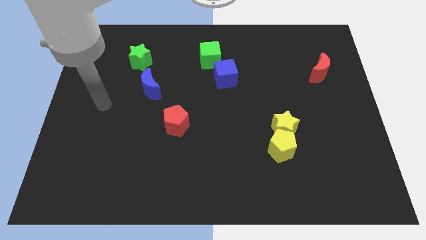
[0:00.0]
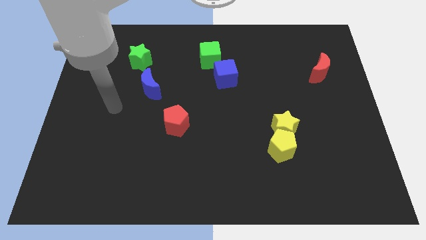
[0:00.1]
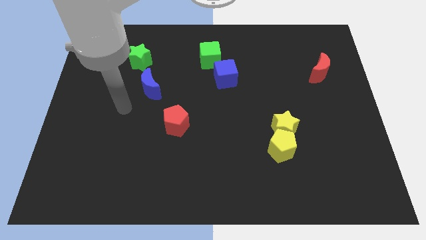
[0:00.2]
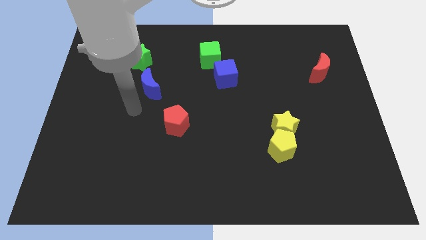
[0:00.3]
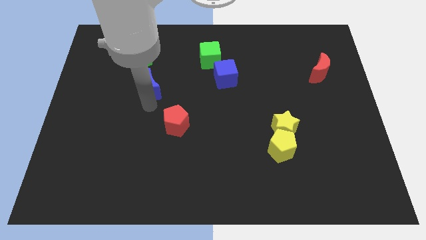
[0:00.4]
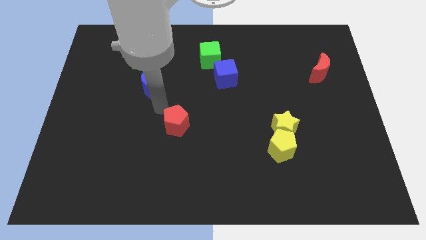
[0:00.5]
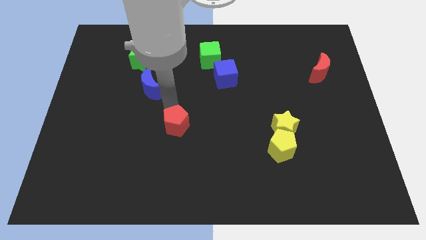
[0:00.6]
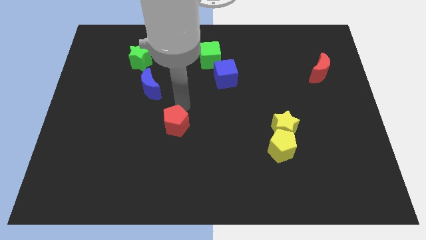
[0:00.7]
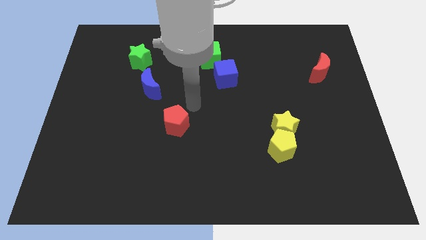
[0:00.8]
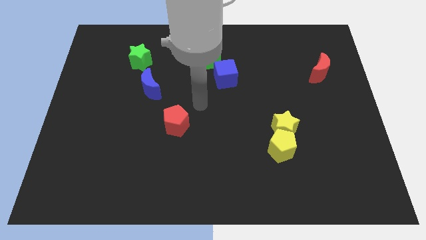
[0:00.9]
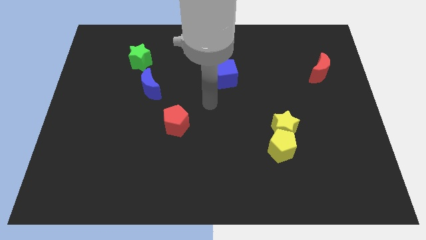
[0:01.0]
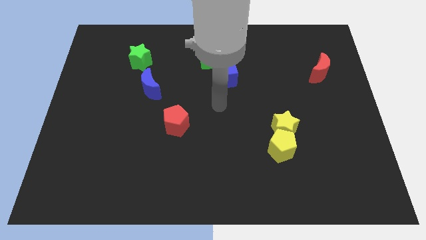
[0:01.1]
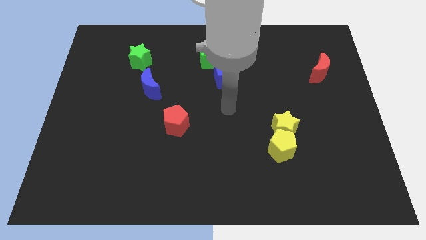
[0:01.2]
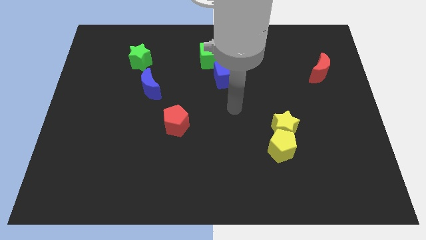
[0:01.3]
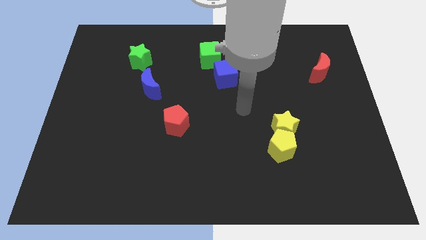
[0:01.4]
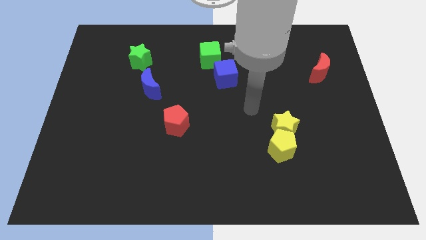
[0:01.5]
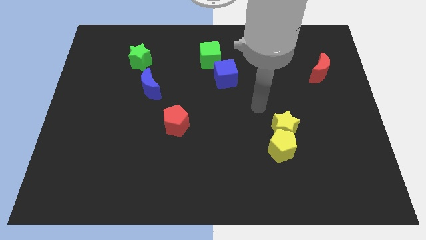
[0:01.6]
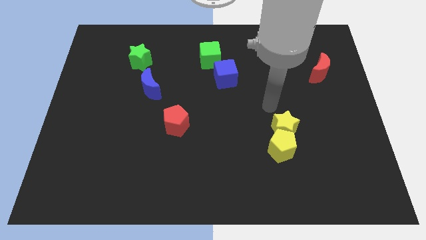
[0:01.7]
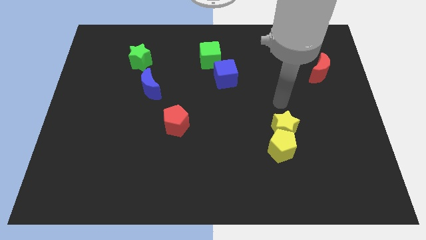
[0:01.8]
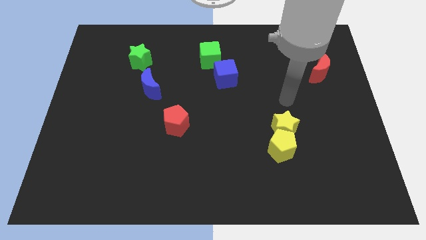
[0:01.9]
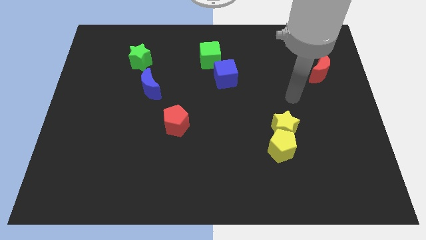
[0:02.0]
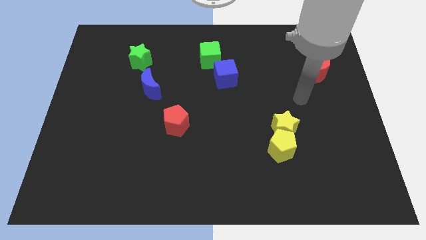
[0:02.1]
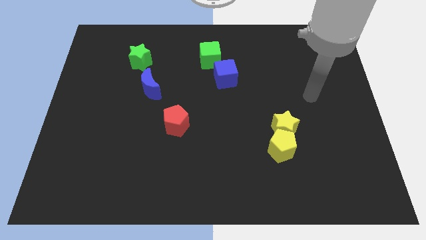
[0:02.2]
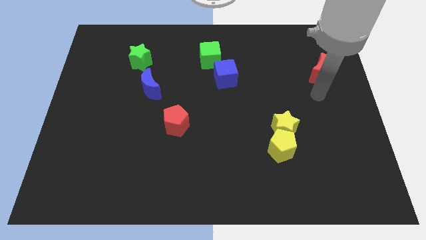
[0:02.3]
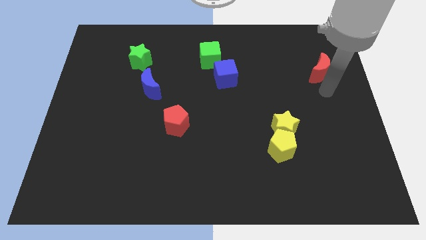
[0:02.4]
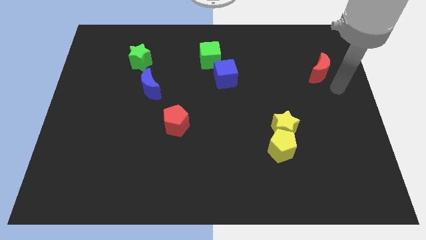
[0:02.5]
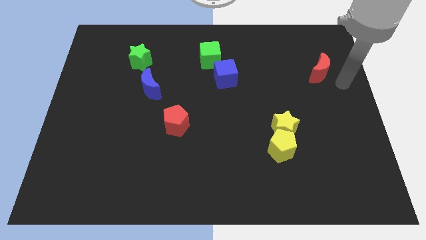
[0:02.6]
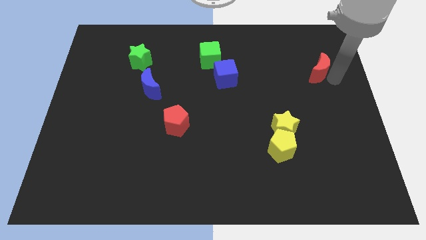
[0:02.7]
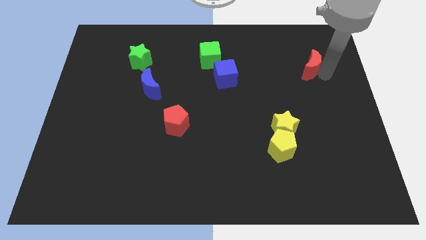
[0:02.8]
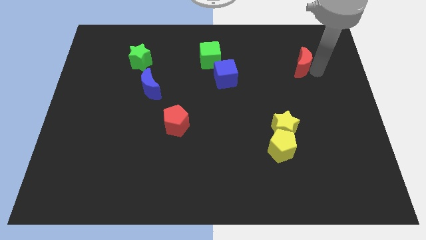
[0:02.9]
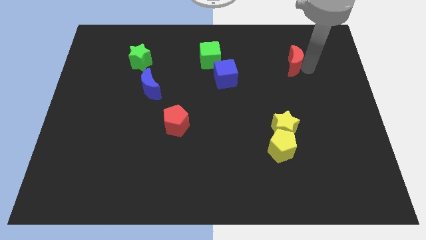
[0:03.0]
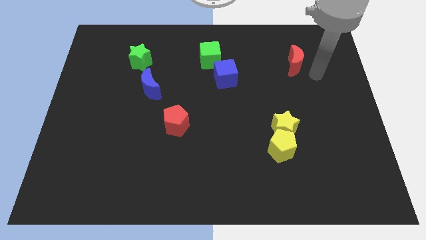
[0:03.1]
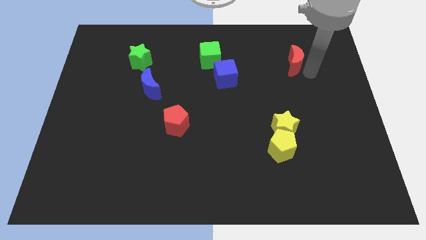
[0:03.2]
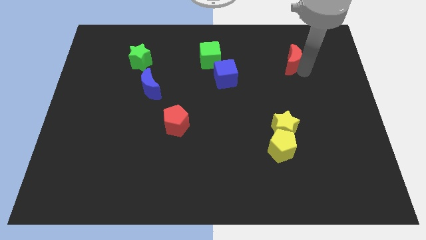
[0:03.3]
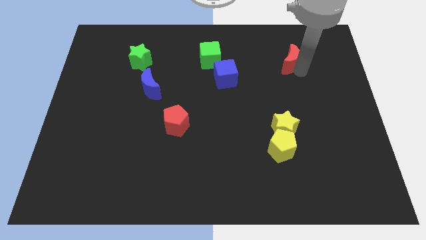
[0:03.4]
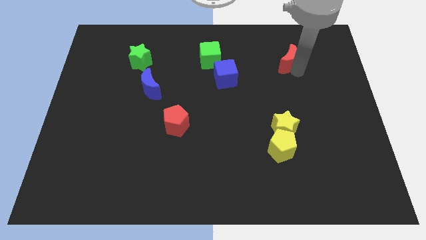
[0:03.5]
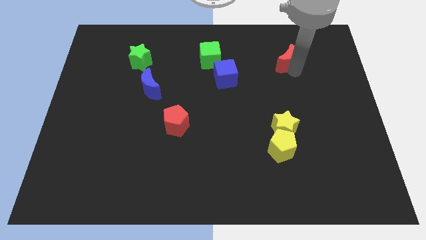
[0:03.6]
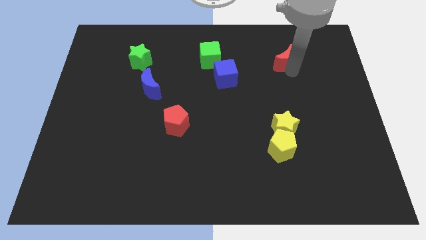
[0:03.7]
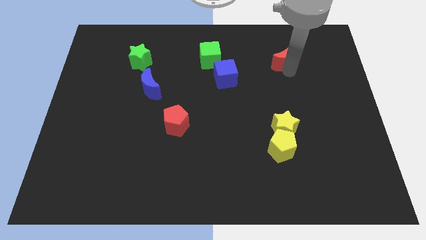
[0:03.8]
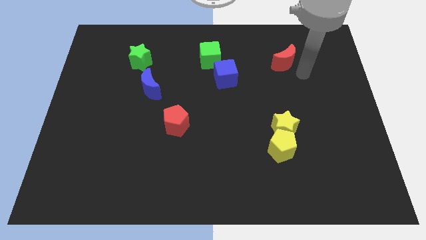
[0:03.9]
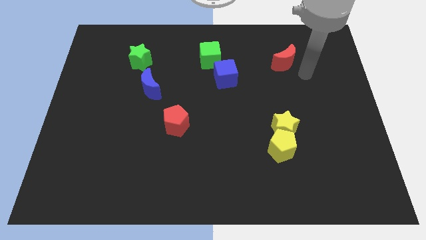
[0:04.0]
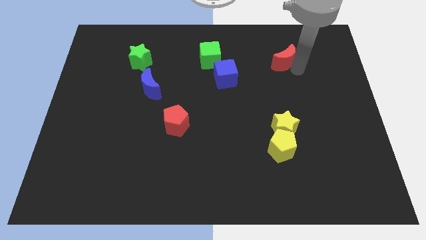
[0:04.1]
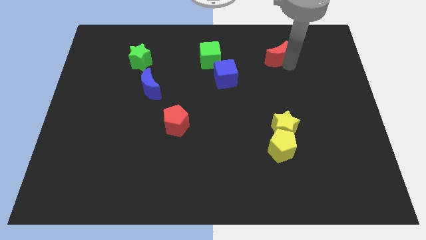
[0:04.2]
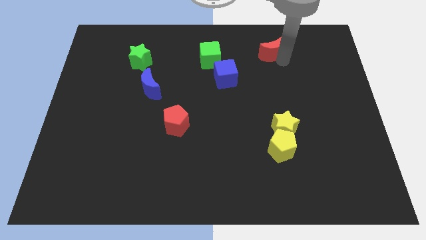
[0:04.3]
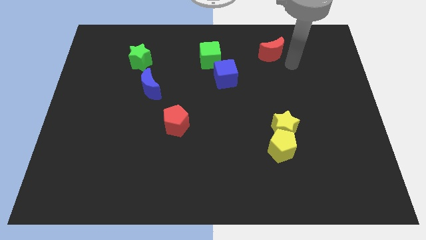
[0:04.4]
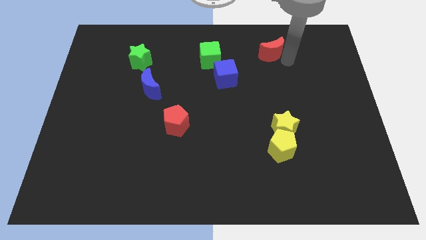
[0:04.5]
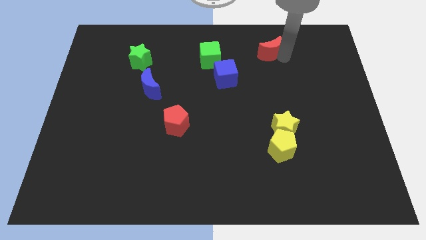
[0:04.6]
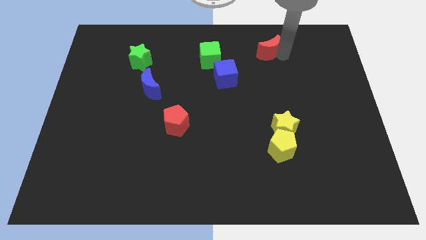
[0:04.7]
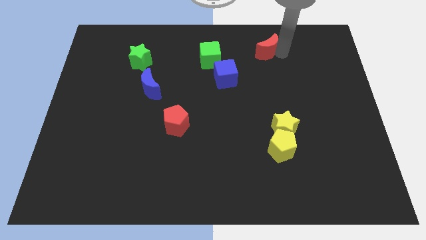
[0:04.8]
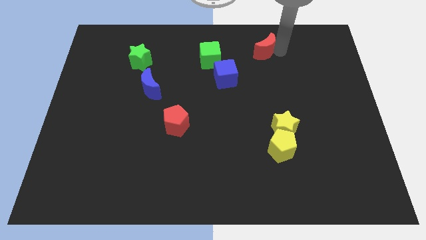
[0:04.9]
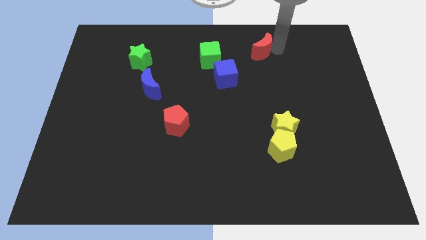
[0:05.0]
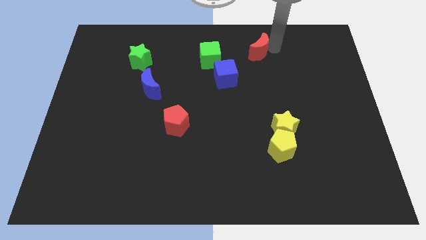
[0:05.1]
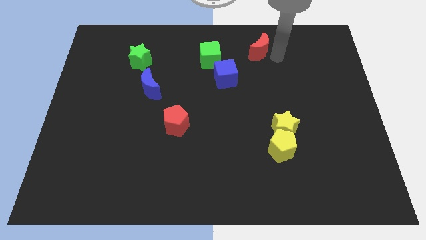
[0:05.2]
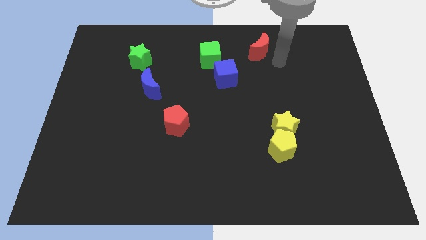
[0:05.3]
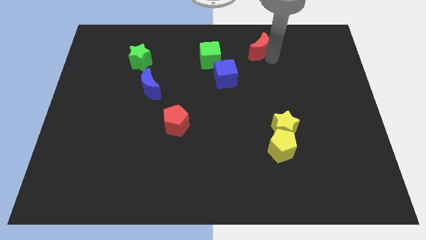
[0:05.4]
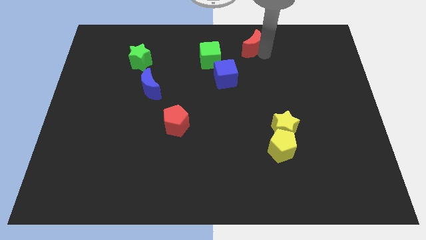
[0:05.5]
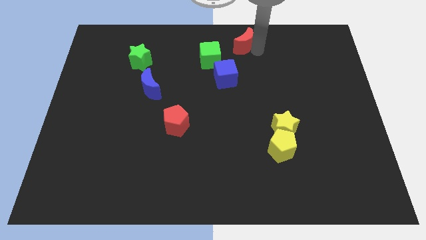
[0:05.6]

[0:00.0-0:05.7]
slide the red moon to the towards your base

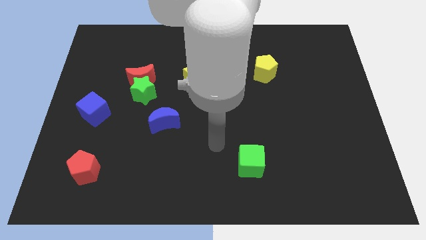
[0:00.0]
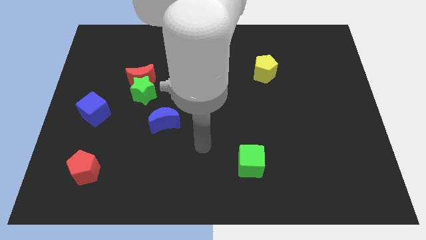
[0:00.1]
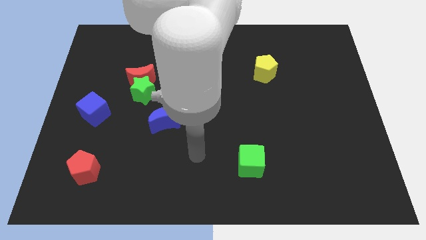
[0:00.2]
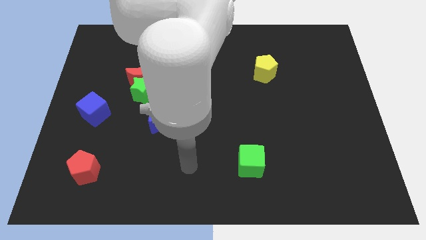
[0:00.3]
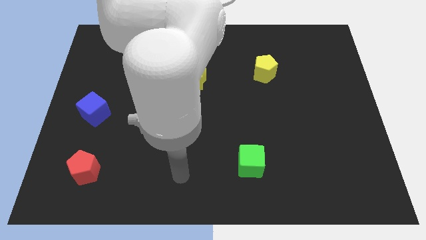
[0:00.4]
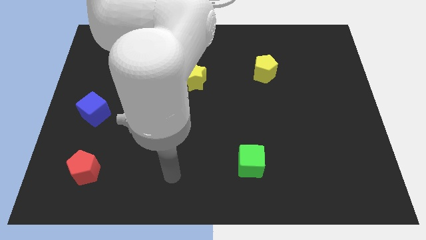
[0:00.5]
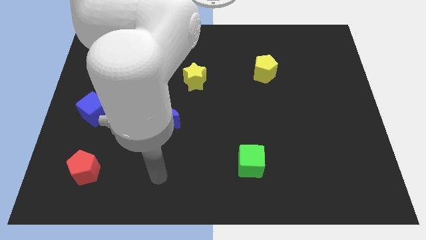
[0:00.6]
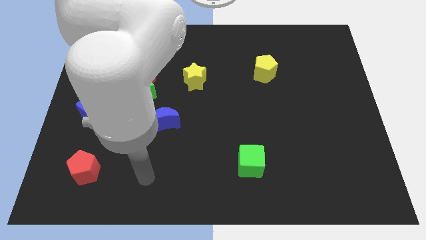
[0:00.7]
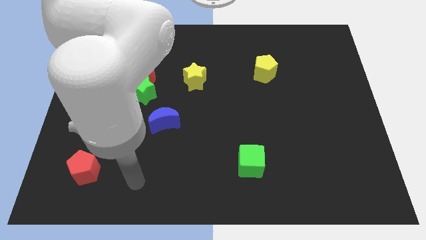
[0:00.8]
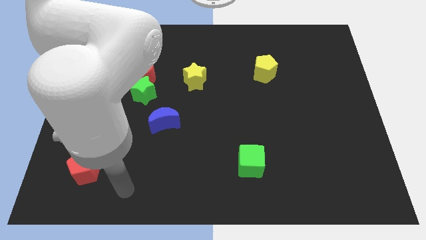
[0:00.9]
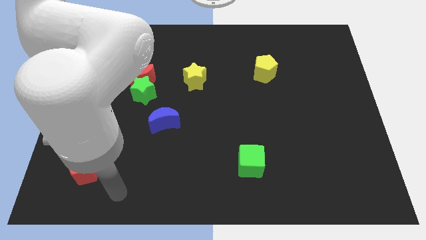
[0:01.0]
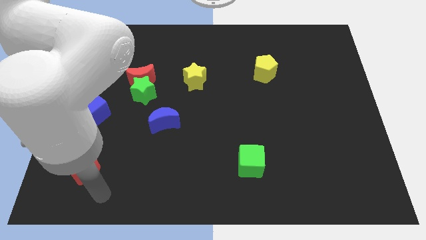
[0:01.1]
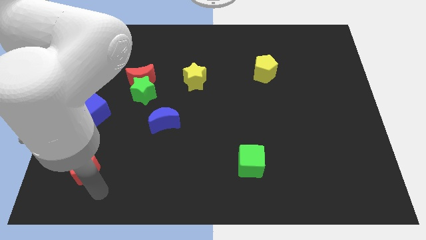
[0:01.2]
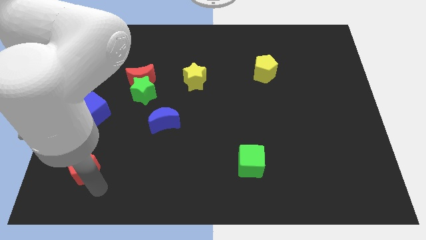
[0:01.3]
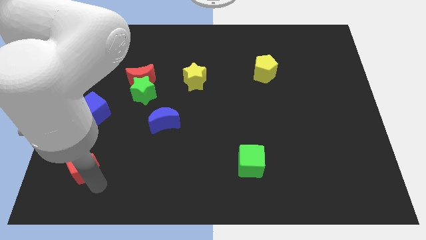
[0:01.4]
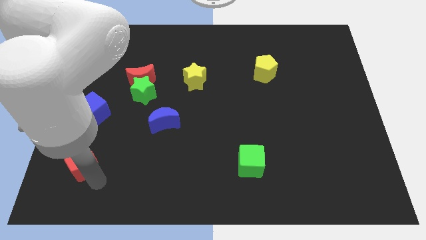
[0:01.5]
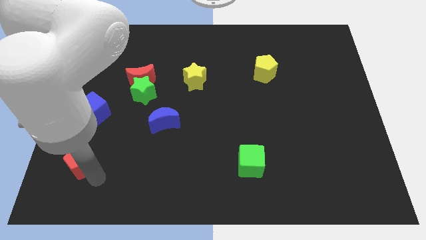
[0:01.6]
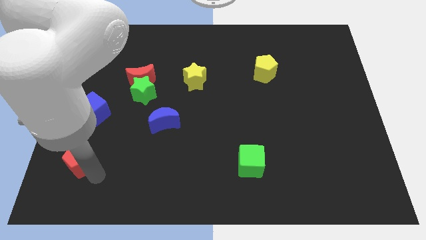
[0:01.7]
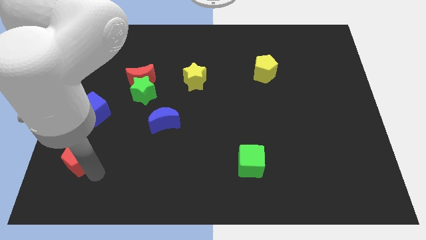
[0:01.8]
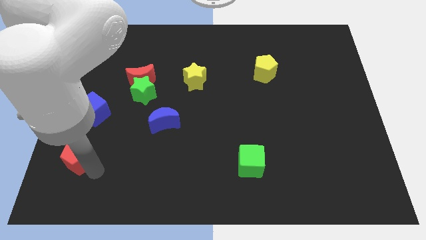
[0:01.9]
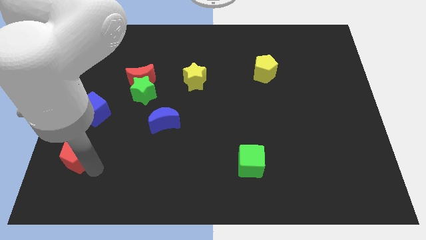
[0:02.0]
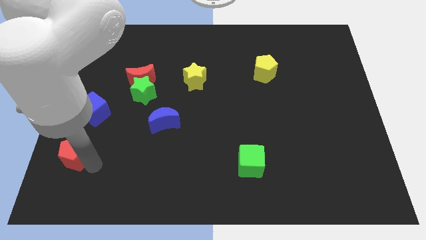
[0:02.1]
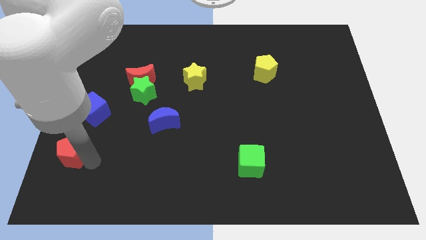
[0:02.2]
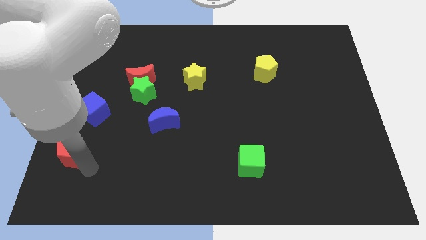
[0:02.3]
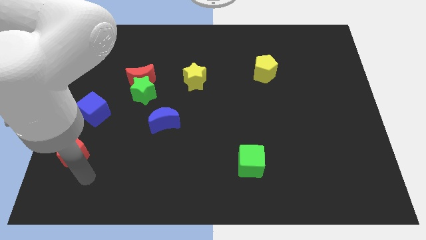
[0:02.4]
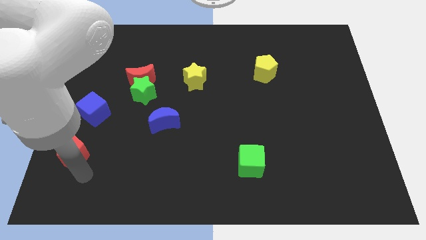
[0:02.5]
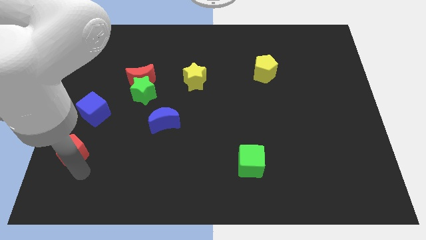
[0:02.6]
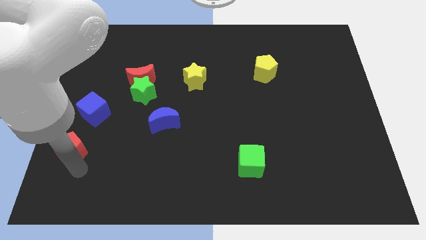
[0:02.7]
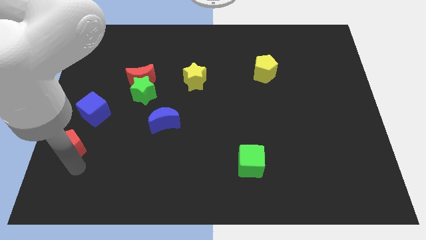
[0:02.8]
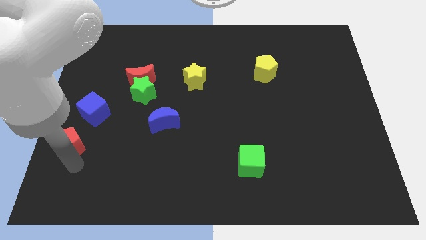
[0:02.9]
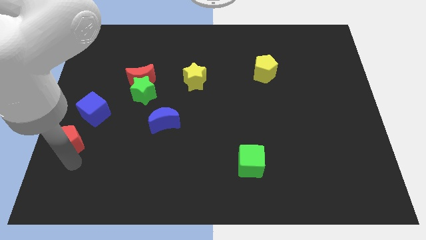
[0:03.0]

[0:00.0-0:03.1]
move the red pentagon to the center left
